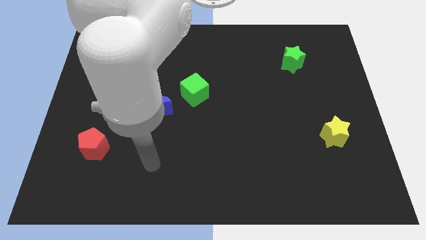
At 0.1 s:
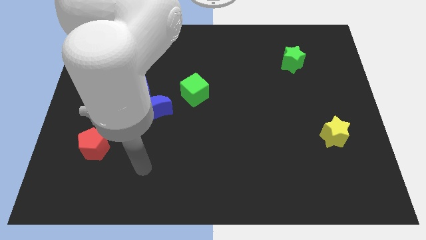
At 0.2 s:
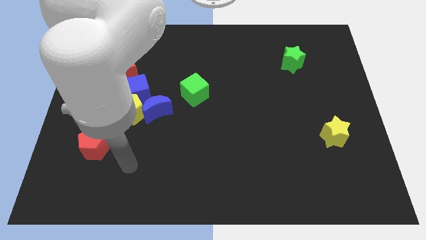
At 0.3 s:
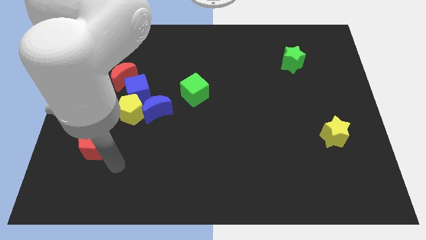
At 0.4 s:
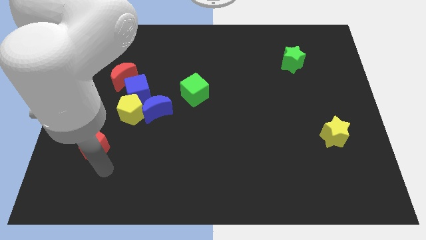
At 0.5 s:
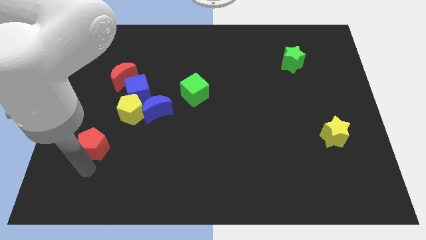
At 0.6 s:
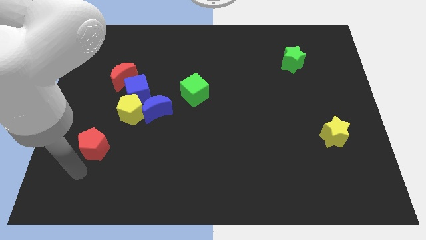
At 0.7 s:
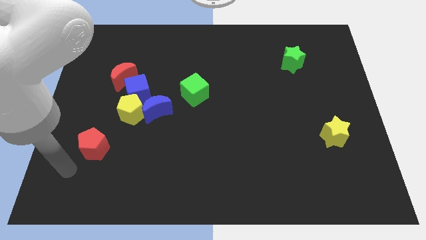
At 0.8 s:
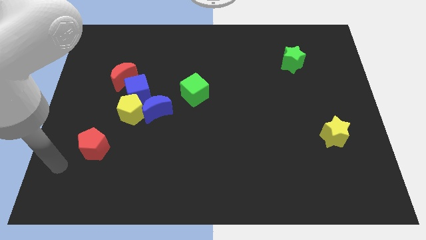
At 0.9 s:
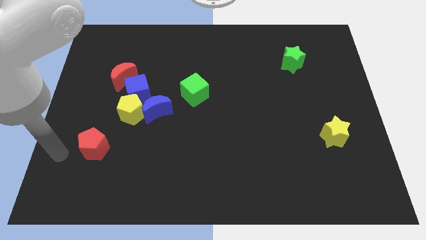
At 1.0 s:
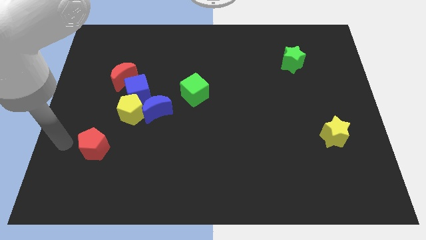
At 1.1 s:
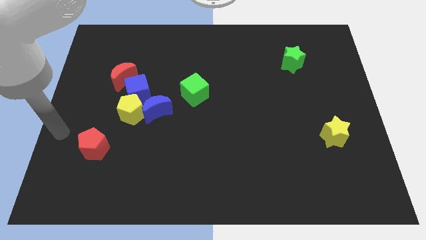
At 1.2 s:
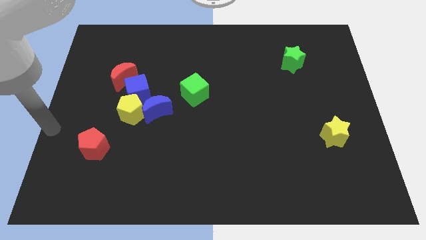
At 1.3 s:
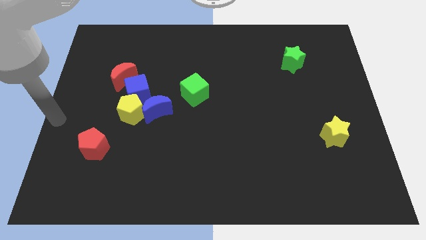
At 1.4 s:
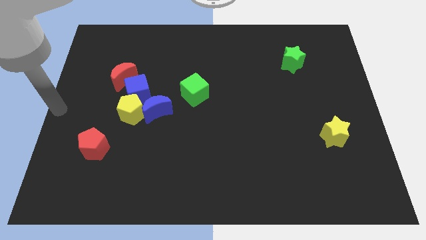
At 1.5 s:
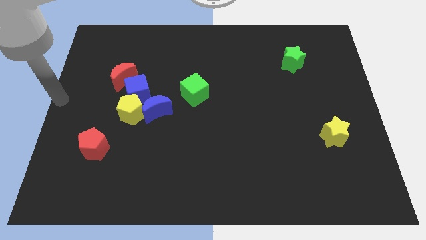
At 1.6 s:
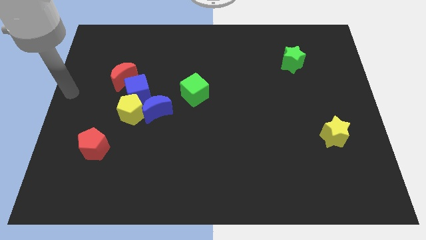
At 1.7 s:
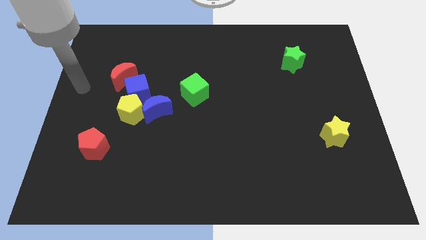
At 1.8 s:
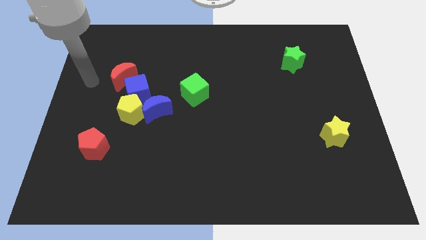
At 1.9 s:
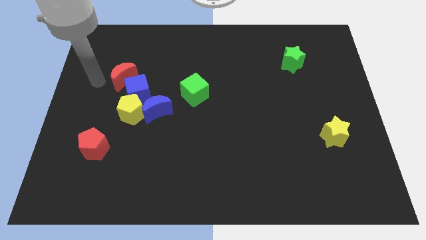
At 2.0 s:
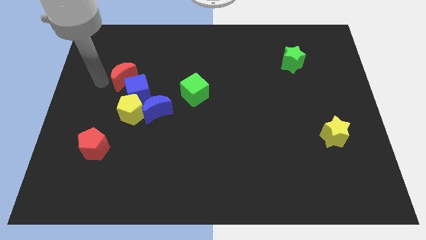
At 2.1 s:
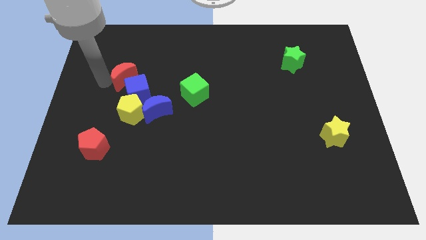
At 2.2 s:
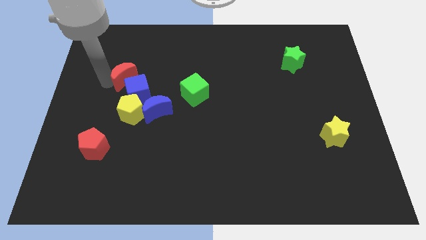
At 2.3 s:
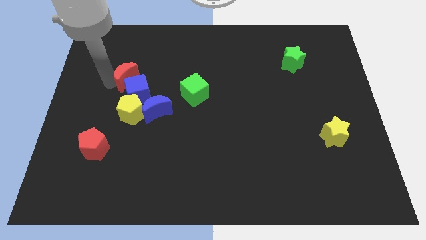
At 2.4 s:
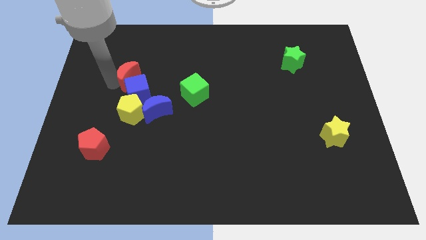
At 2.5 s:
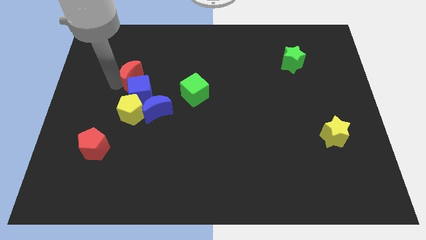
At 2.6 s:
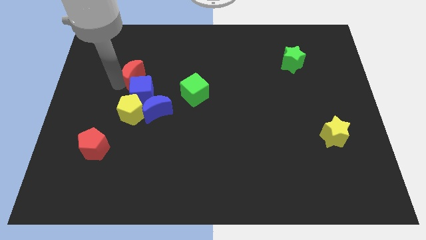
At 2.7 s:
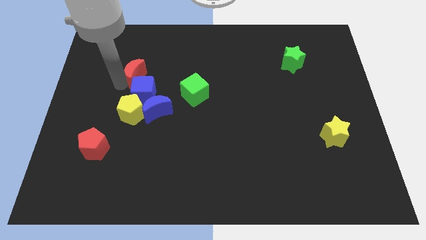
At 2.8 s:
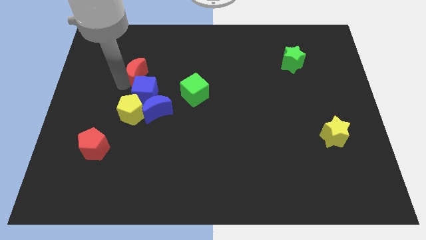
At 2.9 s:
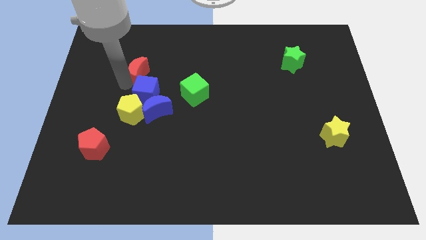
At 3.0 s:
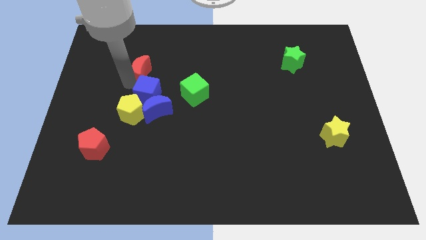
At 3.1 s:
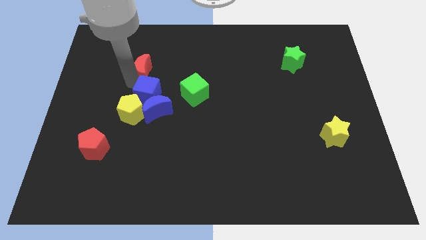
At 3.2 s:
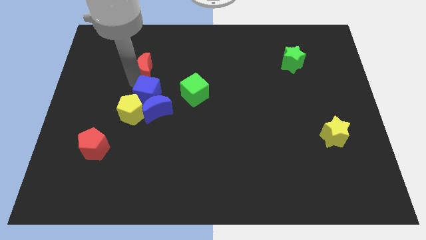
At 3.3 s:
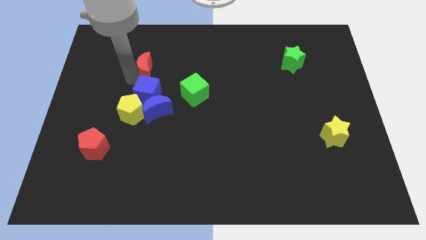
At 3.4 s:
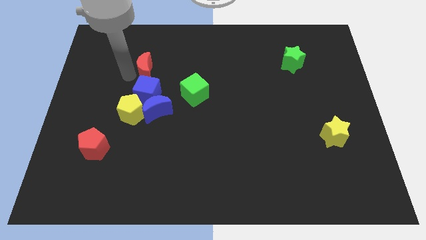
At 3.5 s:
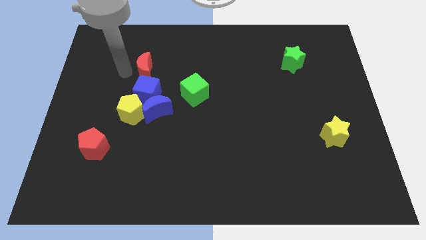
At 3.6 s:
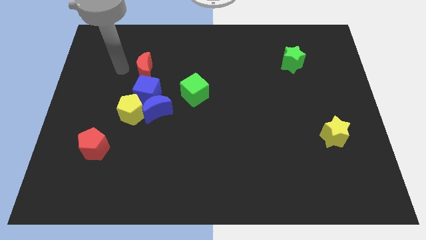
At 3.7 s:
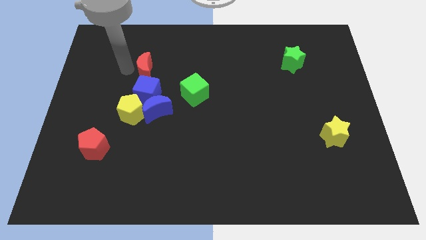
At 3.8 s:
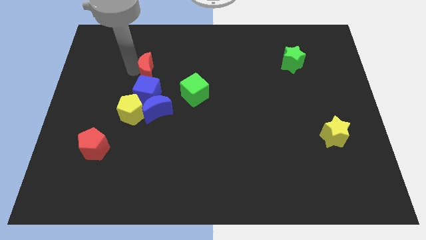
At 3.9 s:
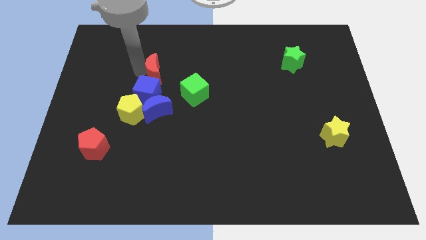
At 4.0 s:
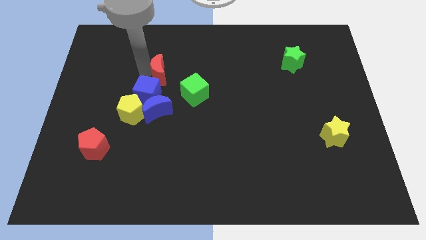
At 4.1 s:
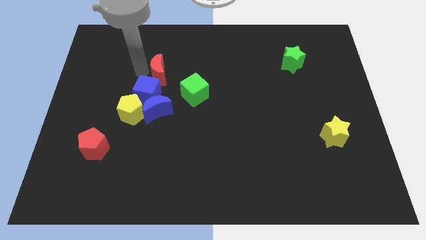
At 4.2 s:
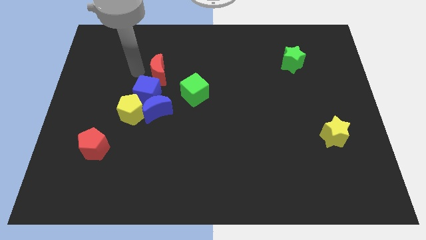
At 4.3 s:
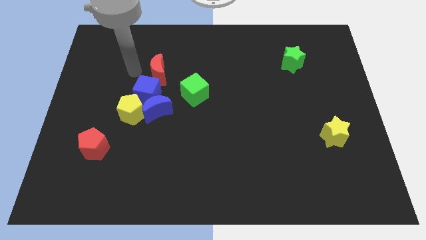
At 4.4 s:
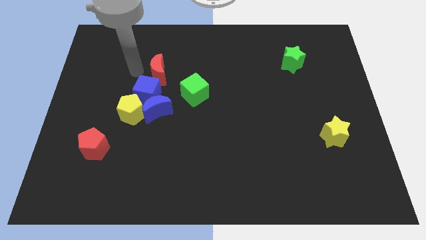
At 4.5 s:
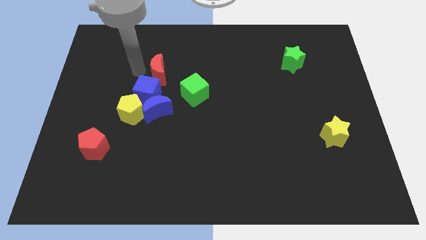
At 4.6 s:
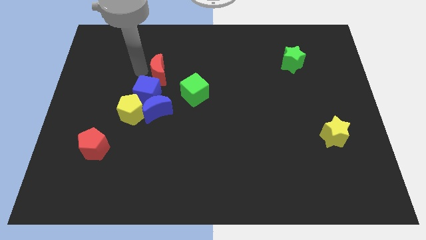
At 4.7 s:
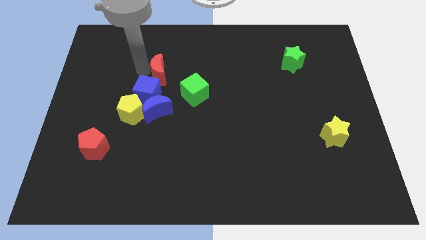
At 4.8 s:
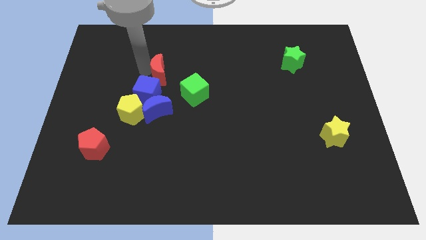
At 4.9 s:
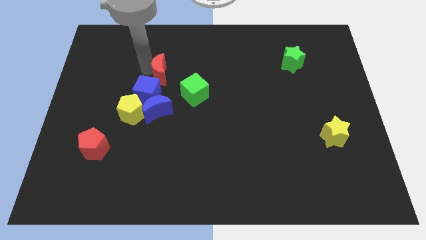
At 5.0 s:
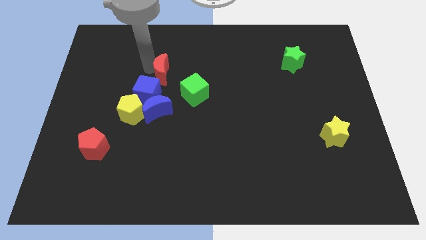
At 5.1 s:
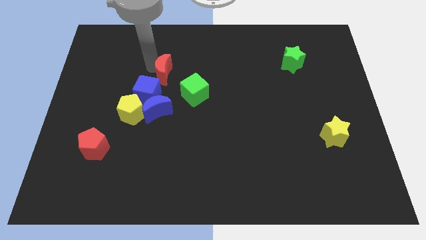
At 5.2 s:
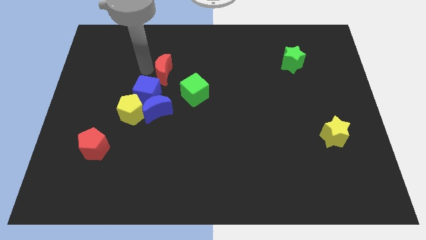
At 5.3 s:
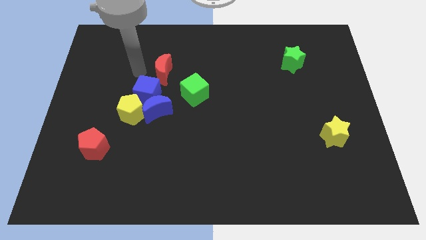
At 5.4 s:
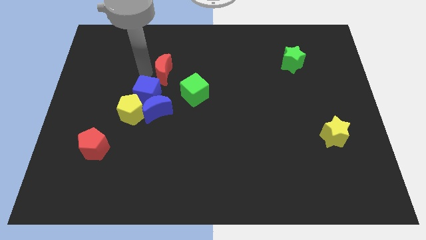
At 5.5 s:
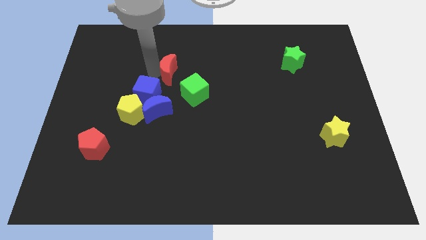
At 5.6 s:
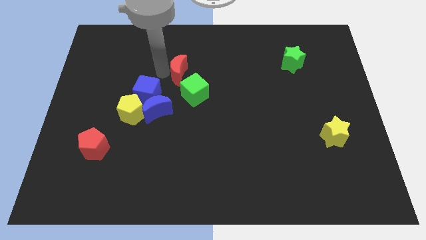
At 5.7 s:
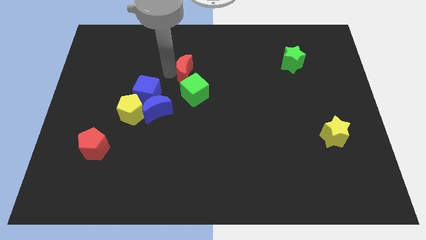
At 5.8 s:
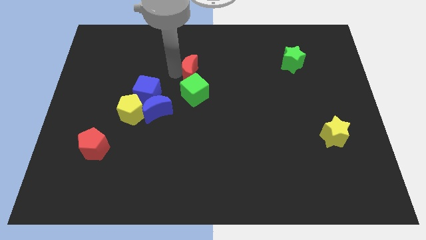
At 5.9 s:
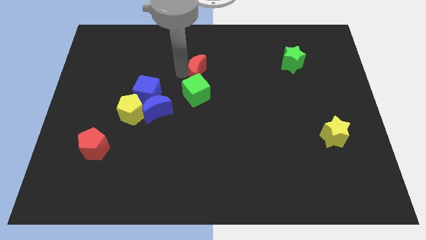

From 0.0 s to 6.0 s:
put the red moon to the top right of the green cube

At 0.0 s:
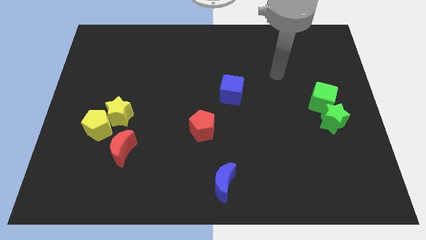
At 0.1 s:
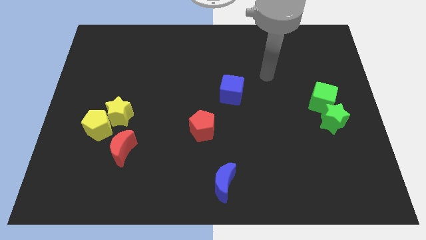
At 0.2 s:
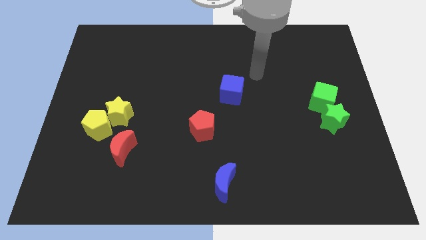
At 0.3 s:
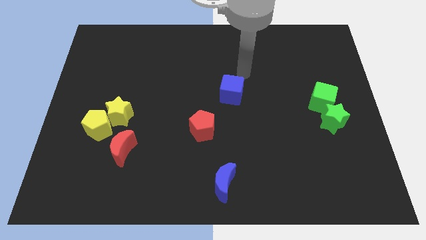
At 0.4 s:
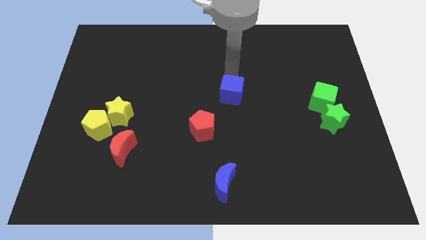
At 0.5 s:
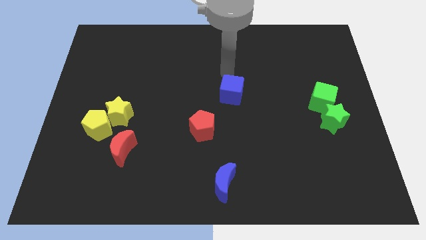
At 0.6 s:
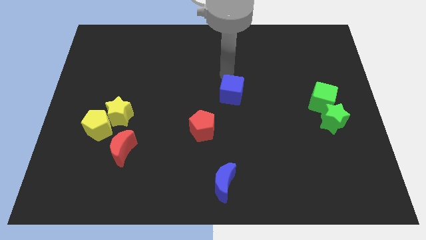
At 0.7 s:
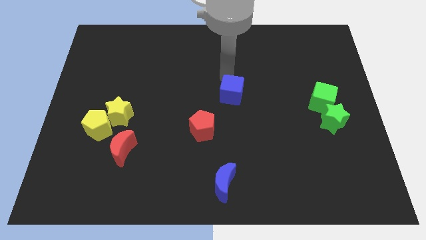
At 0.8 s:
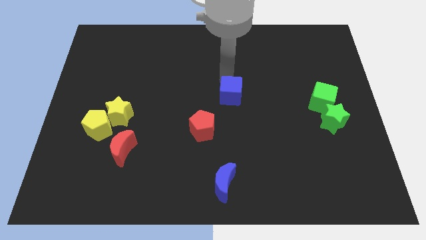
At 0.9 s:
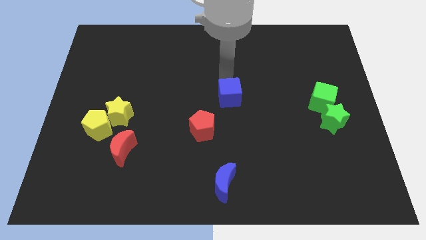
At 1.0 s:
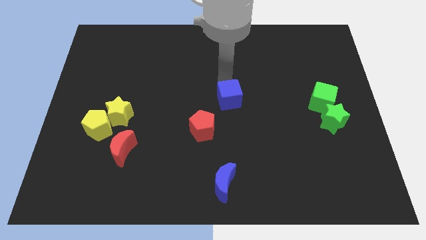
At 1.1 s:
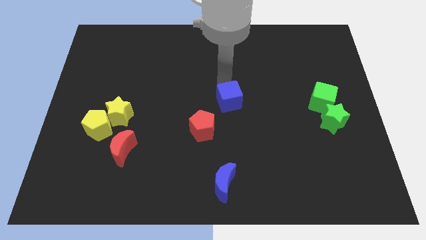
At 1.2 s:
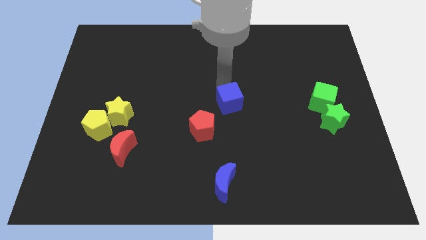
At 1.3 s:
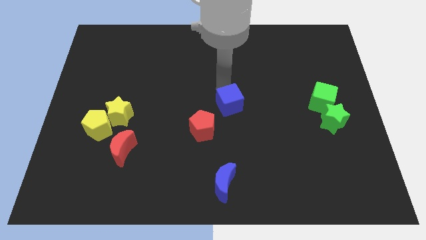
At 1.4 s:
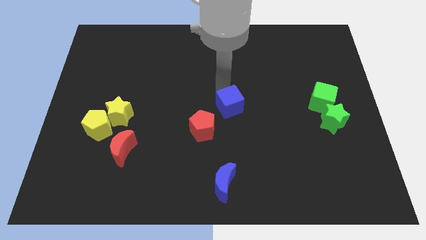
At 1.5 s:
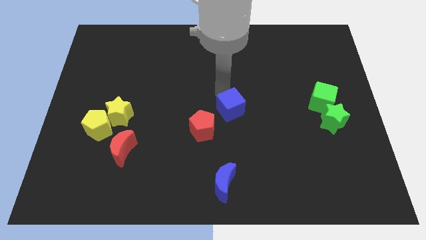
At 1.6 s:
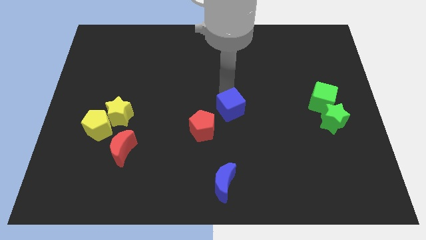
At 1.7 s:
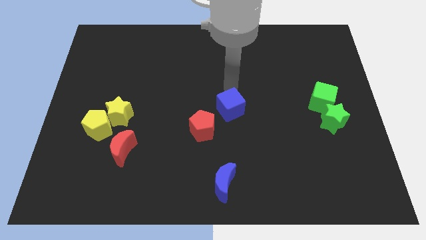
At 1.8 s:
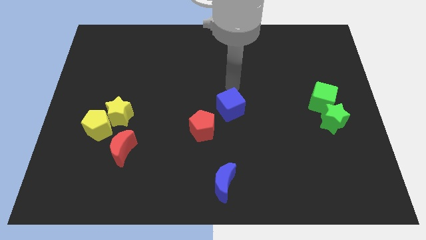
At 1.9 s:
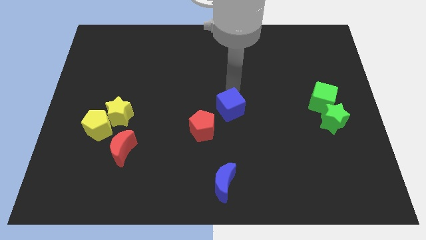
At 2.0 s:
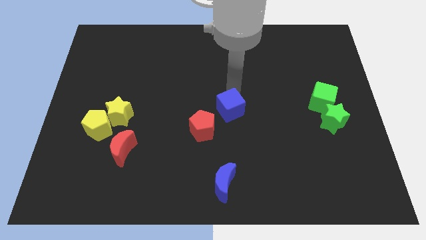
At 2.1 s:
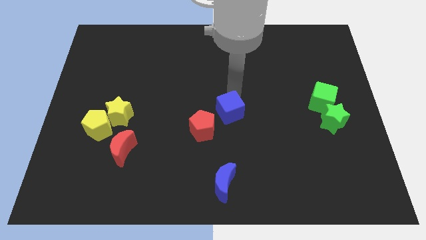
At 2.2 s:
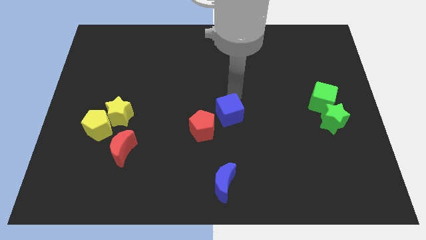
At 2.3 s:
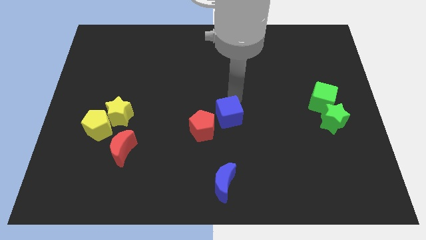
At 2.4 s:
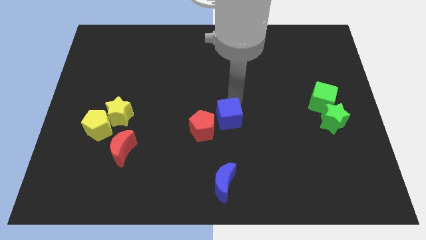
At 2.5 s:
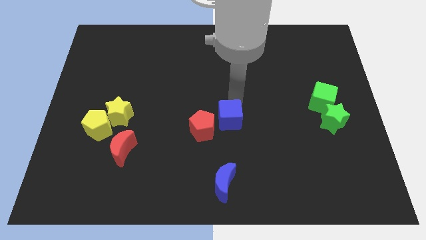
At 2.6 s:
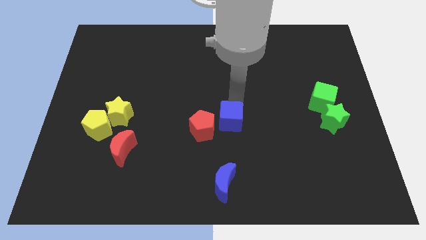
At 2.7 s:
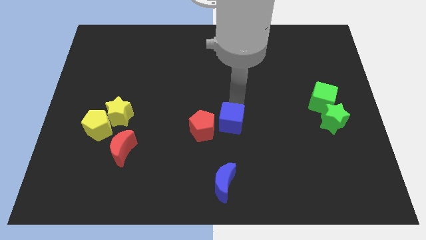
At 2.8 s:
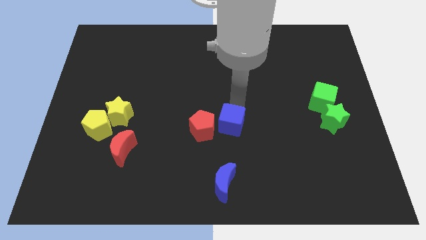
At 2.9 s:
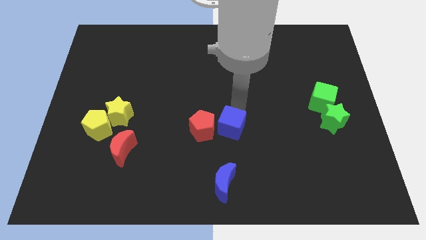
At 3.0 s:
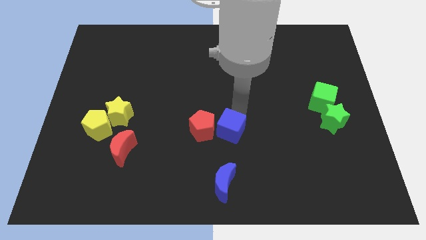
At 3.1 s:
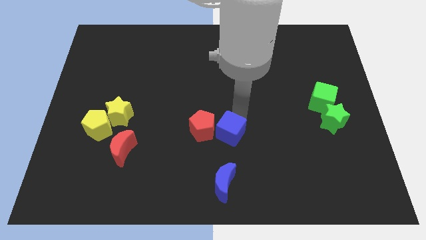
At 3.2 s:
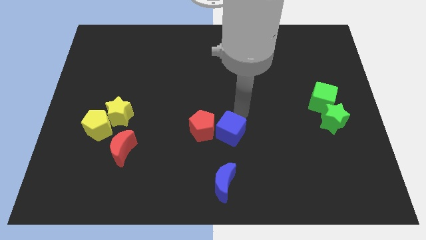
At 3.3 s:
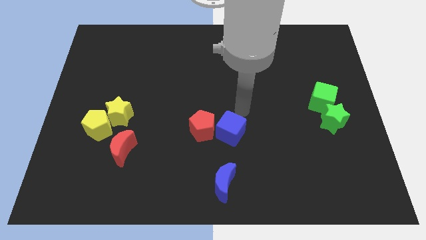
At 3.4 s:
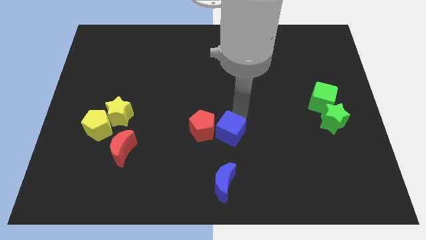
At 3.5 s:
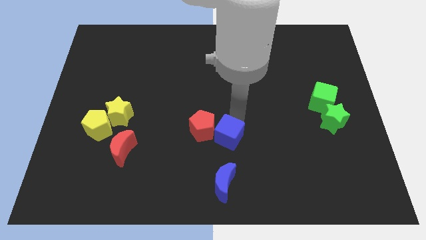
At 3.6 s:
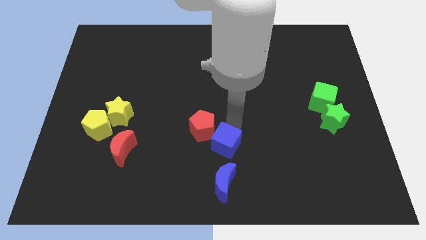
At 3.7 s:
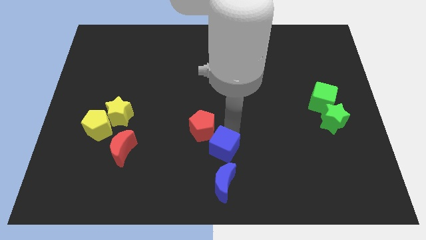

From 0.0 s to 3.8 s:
put the blue cube below the red pentagon
